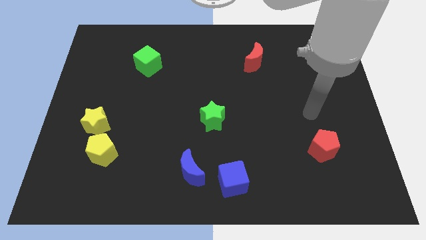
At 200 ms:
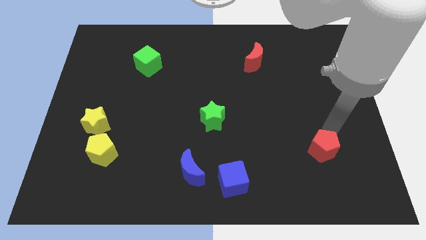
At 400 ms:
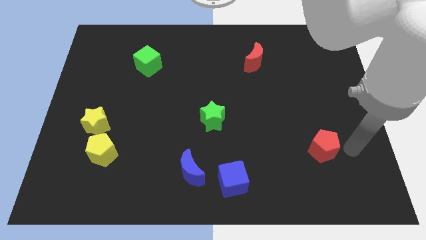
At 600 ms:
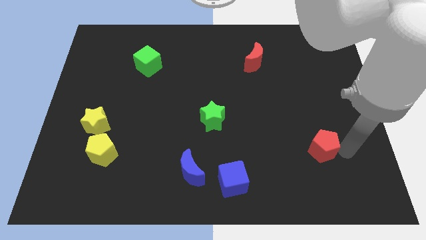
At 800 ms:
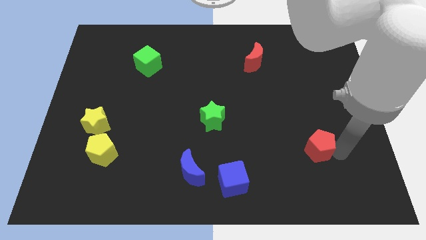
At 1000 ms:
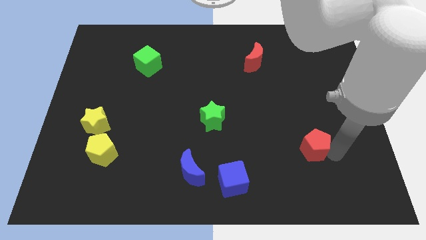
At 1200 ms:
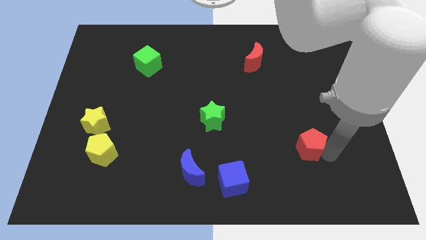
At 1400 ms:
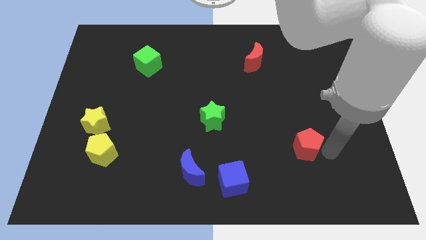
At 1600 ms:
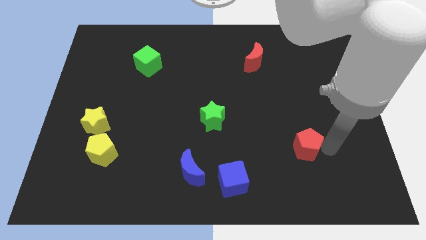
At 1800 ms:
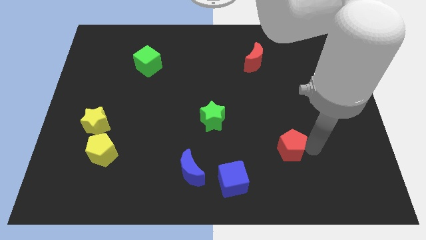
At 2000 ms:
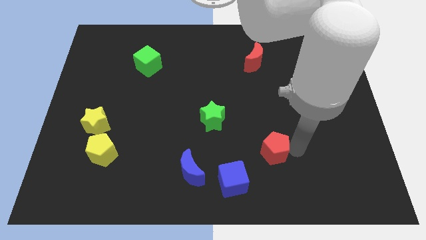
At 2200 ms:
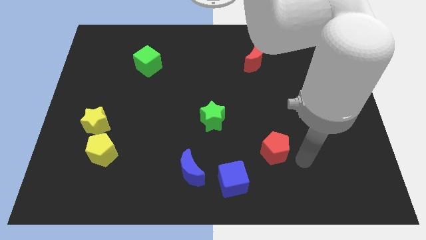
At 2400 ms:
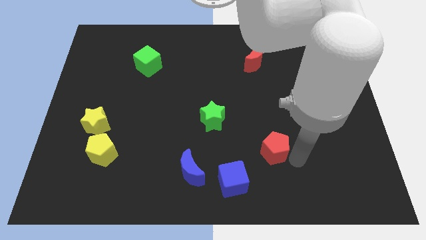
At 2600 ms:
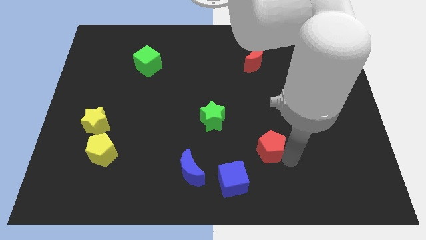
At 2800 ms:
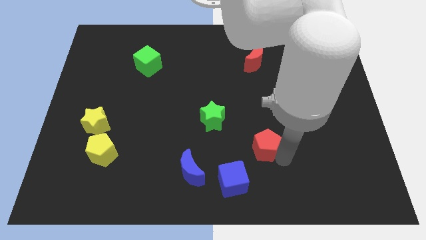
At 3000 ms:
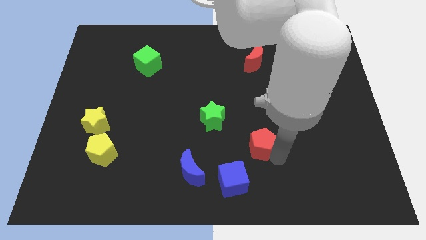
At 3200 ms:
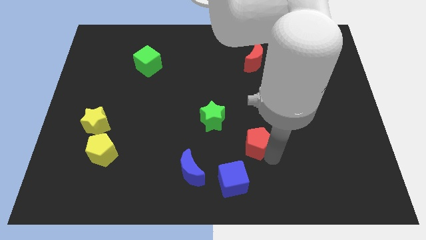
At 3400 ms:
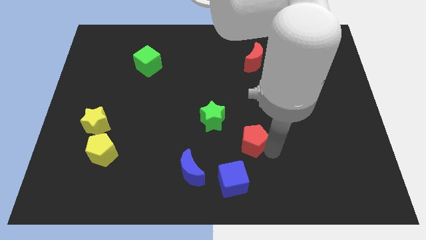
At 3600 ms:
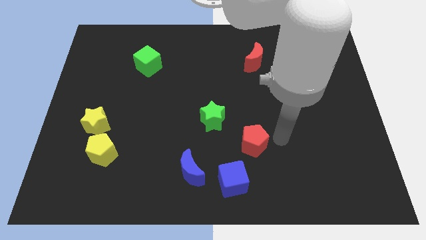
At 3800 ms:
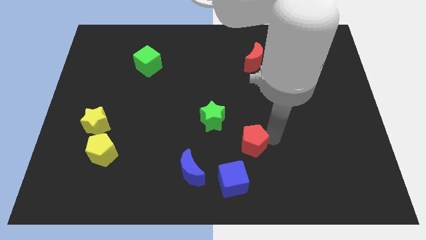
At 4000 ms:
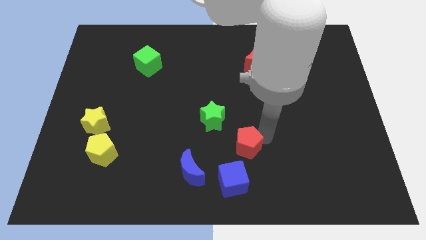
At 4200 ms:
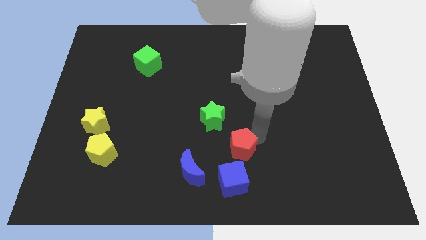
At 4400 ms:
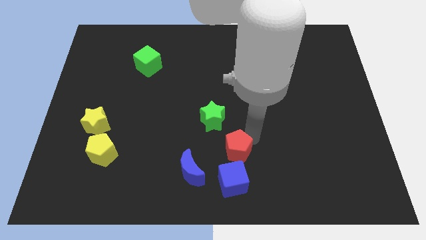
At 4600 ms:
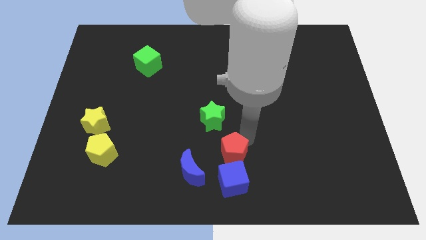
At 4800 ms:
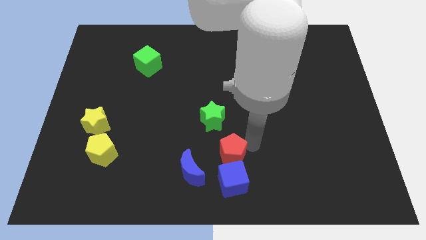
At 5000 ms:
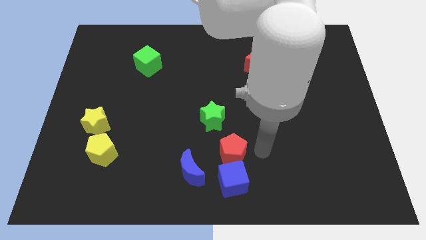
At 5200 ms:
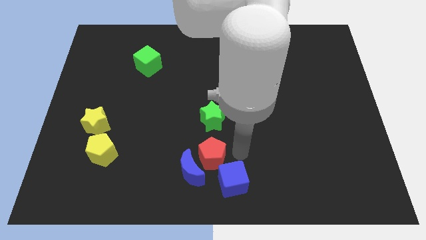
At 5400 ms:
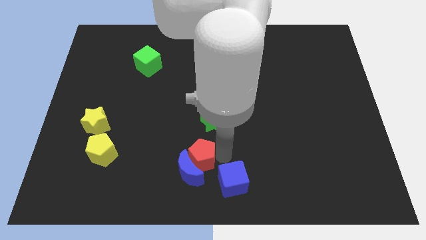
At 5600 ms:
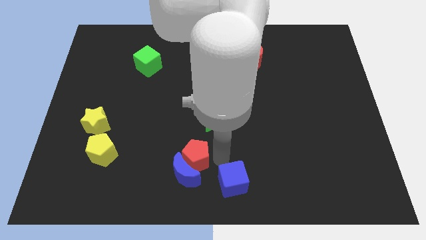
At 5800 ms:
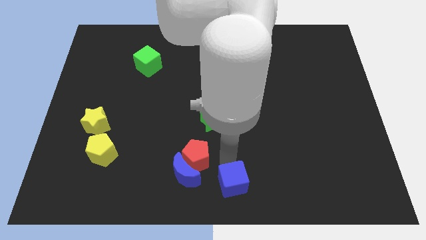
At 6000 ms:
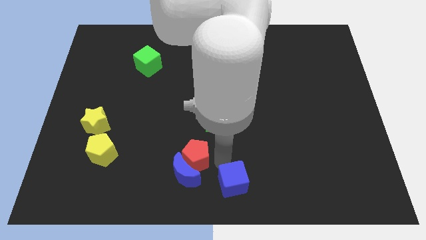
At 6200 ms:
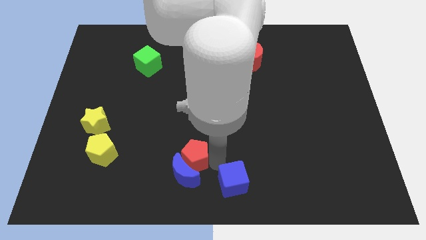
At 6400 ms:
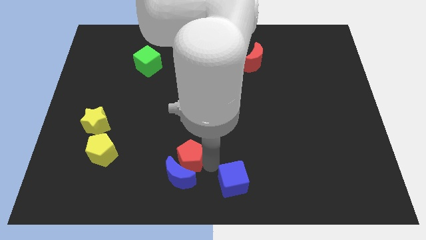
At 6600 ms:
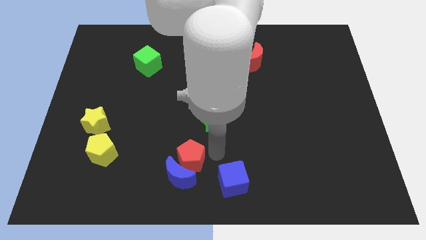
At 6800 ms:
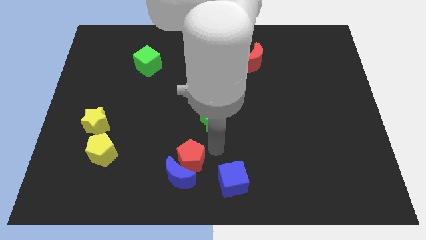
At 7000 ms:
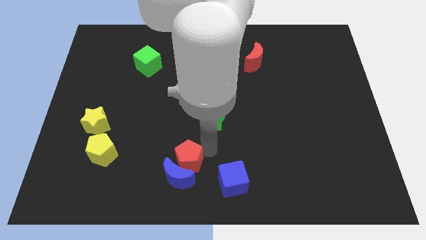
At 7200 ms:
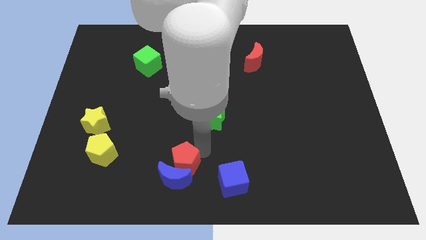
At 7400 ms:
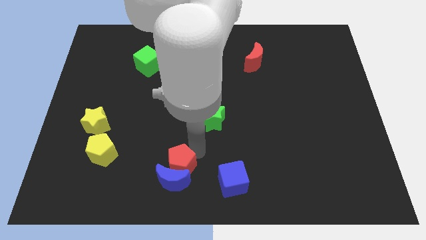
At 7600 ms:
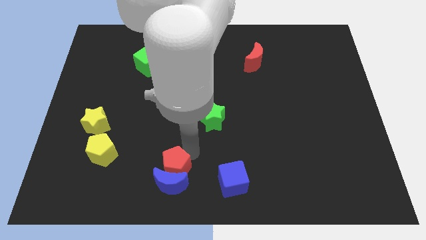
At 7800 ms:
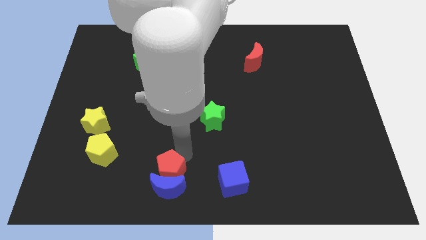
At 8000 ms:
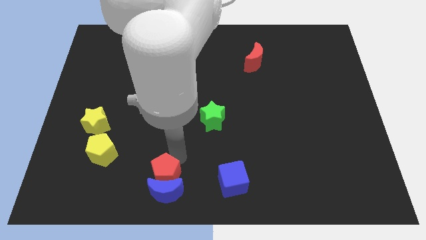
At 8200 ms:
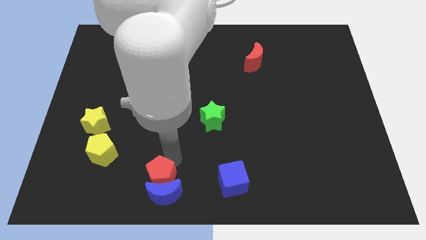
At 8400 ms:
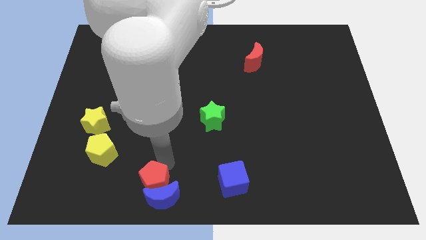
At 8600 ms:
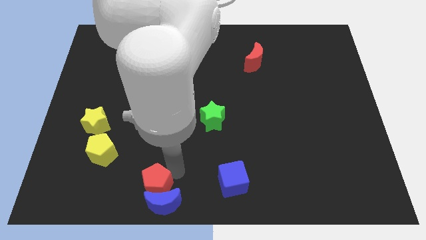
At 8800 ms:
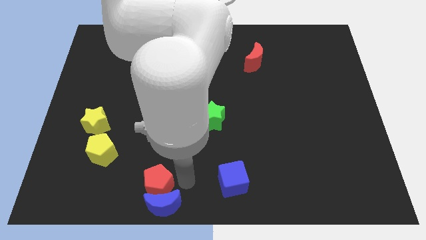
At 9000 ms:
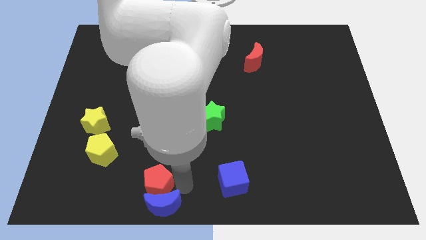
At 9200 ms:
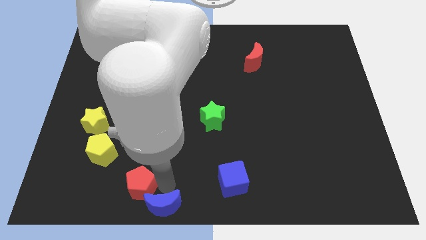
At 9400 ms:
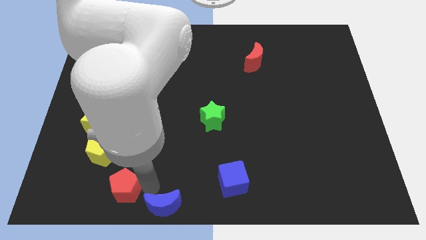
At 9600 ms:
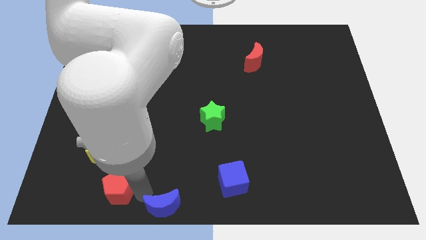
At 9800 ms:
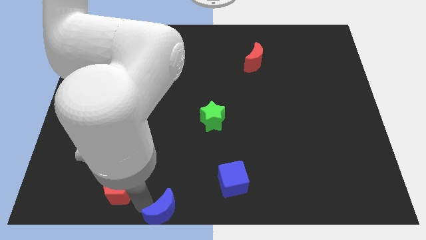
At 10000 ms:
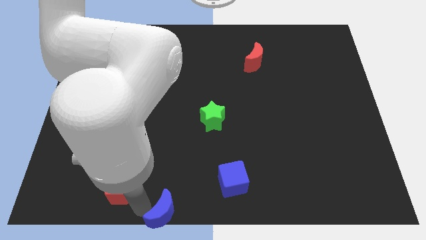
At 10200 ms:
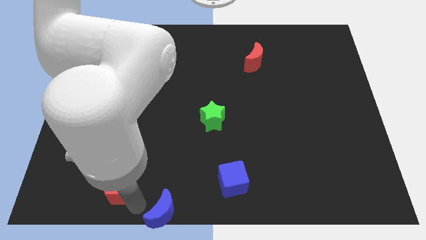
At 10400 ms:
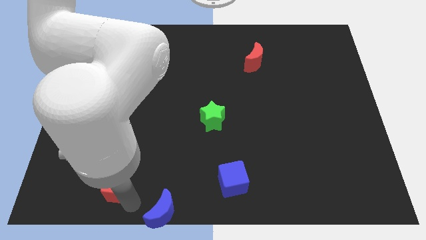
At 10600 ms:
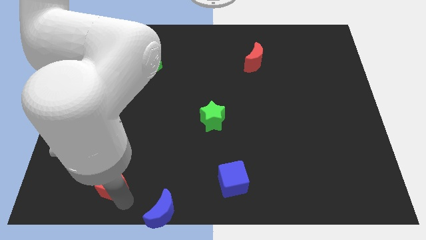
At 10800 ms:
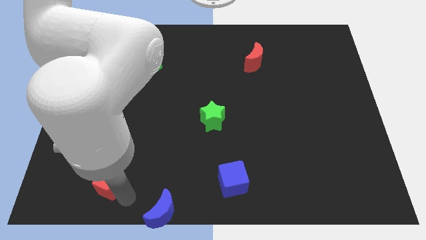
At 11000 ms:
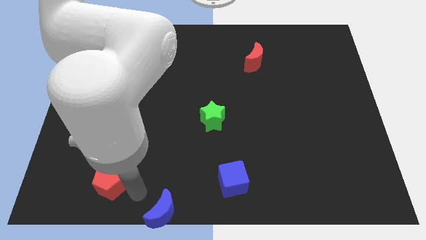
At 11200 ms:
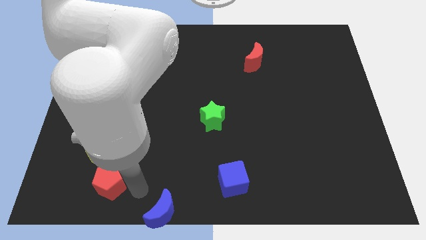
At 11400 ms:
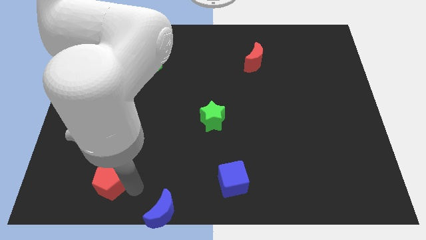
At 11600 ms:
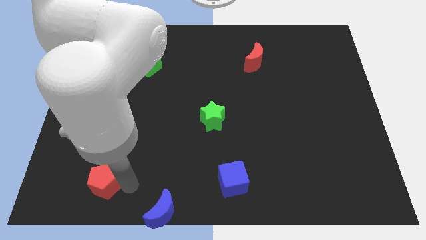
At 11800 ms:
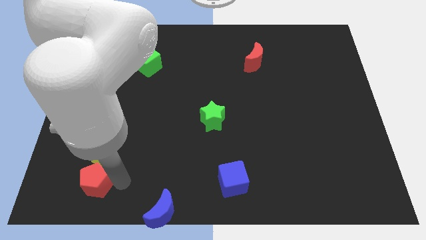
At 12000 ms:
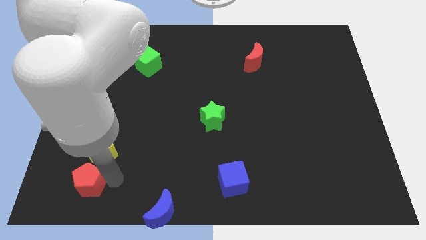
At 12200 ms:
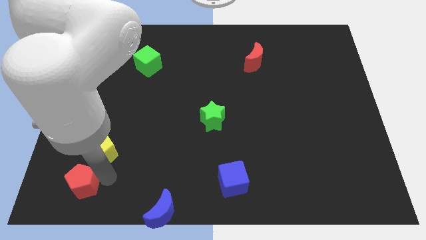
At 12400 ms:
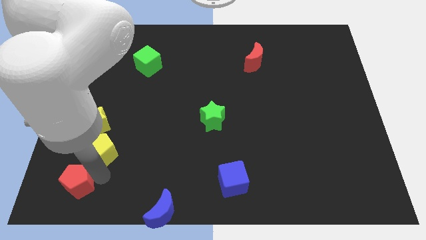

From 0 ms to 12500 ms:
push the red pentagon to the bottom left of the board

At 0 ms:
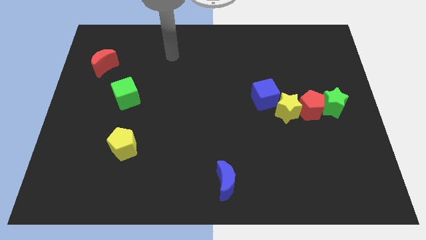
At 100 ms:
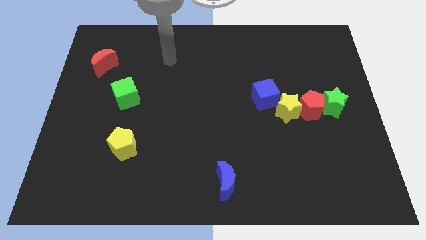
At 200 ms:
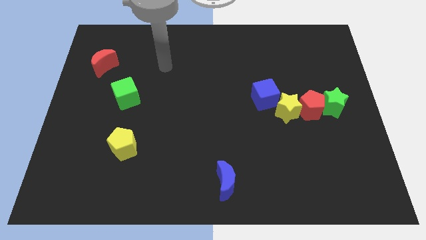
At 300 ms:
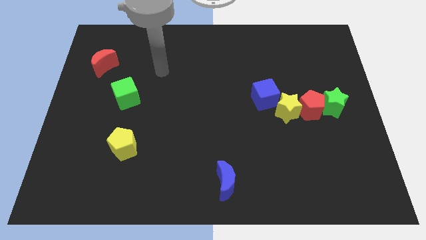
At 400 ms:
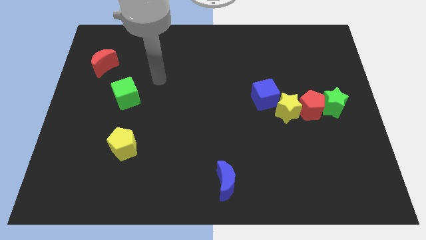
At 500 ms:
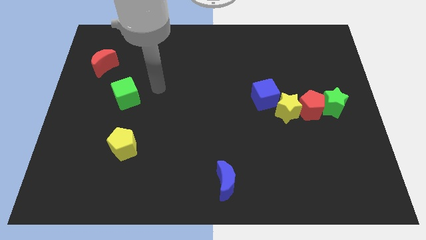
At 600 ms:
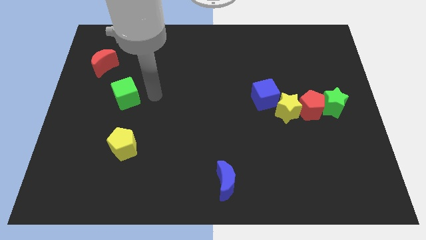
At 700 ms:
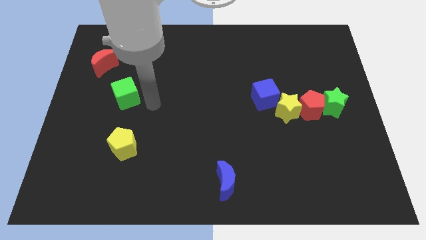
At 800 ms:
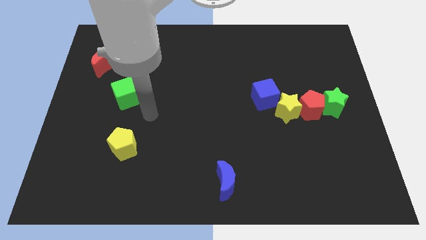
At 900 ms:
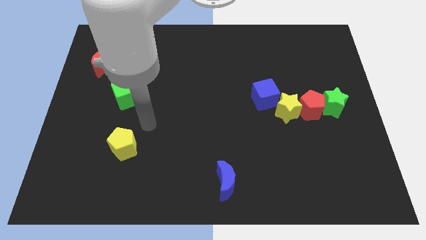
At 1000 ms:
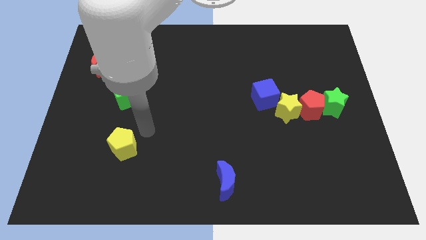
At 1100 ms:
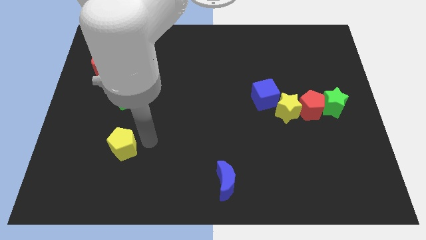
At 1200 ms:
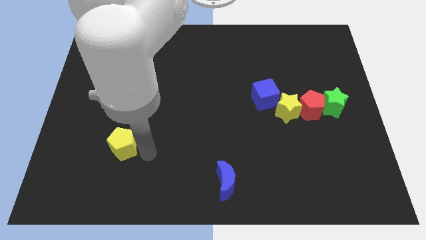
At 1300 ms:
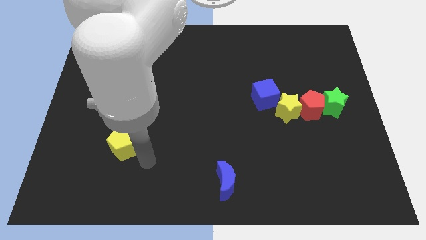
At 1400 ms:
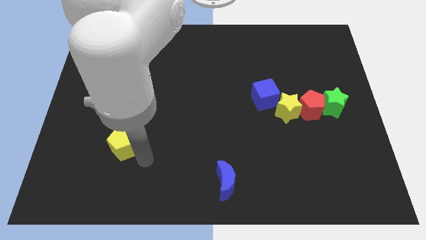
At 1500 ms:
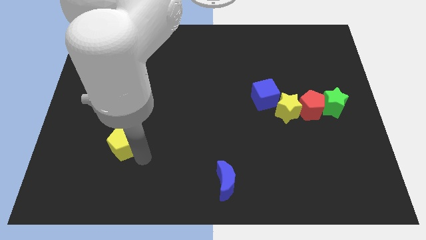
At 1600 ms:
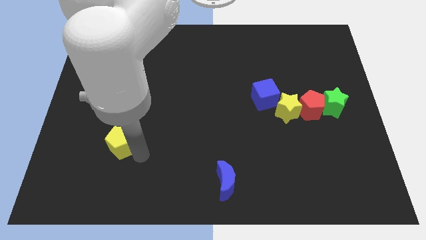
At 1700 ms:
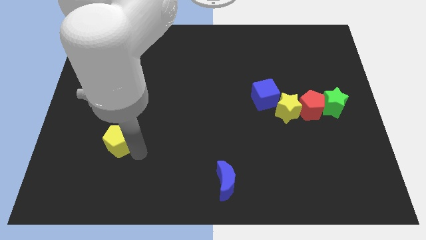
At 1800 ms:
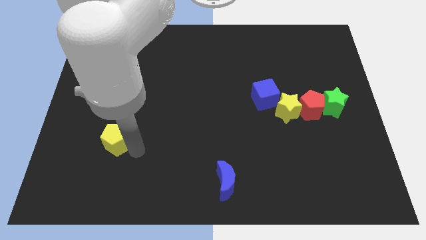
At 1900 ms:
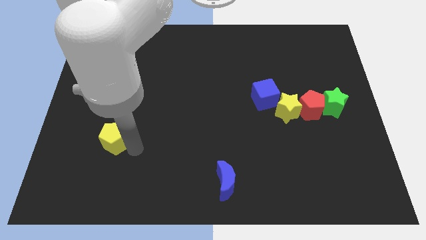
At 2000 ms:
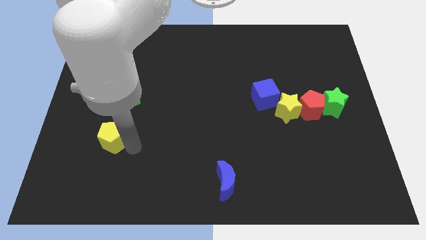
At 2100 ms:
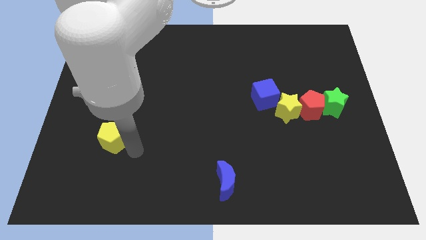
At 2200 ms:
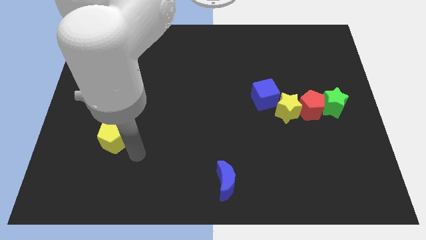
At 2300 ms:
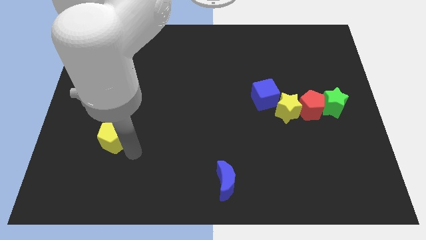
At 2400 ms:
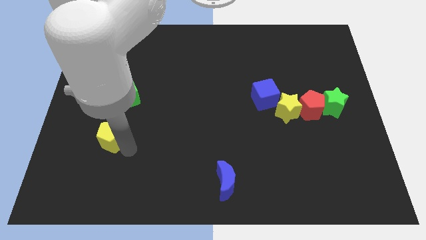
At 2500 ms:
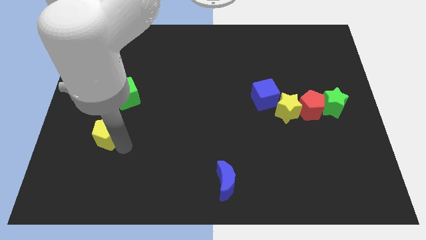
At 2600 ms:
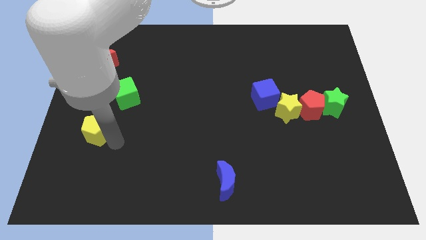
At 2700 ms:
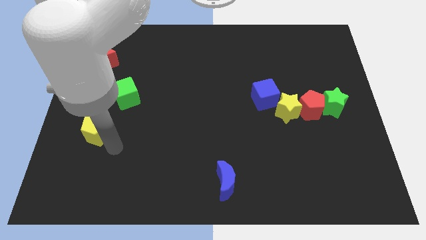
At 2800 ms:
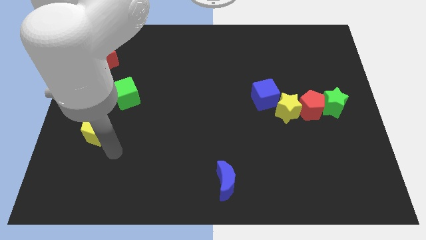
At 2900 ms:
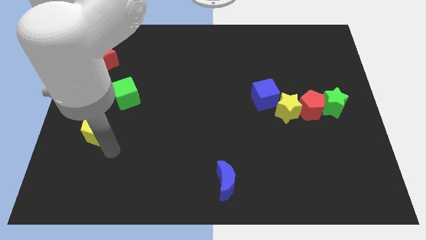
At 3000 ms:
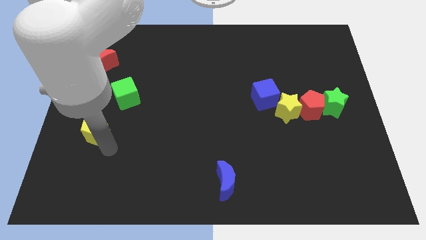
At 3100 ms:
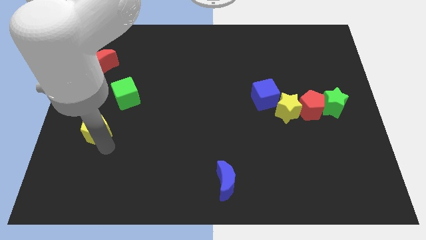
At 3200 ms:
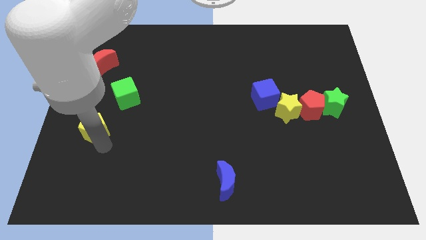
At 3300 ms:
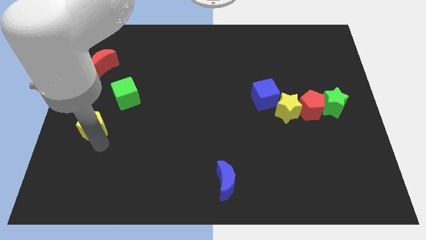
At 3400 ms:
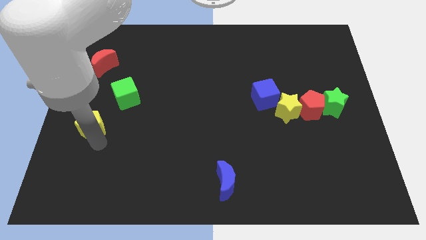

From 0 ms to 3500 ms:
push the yellow pentagon to the center left
